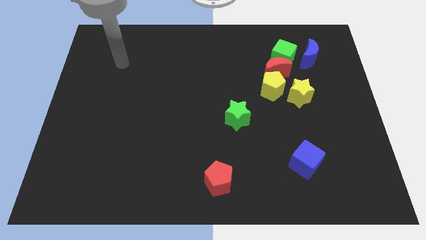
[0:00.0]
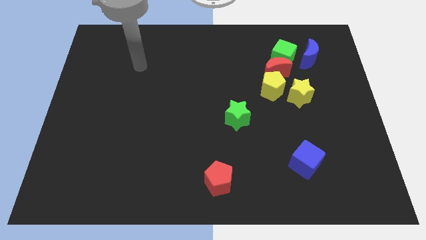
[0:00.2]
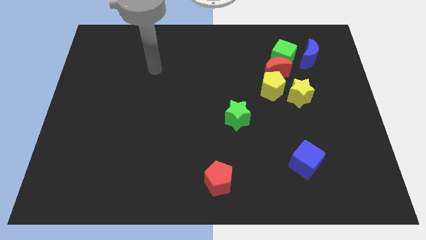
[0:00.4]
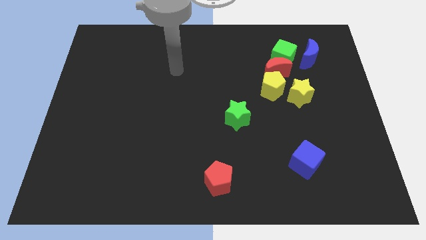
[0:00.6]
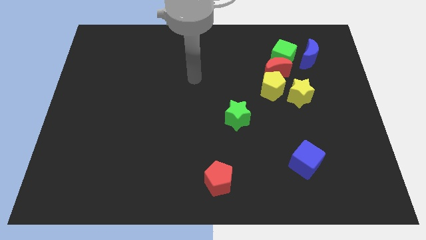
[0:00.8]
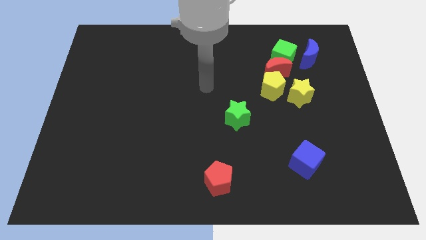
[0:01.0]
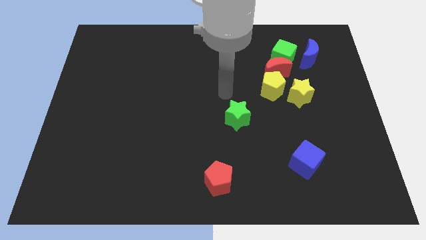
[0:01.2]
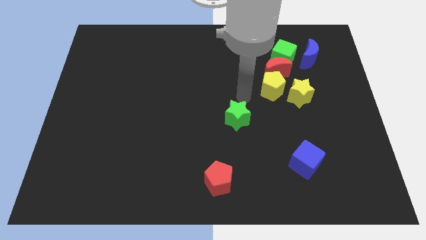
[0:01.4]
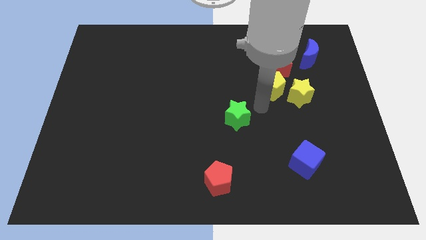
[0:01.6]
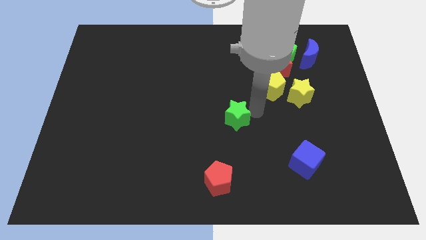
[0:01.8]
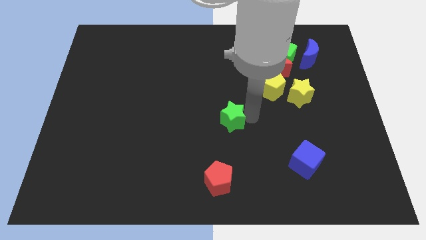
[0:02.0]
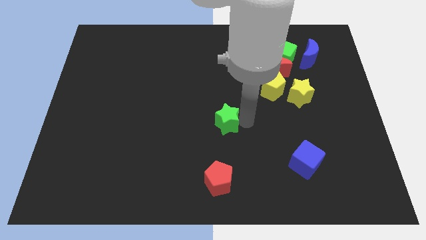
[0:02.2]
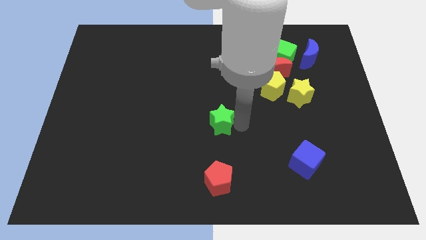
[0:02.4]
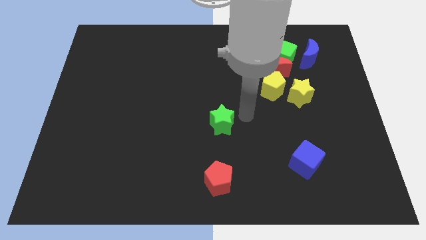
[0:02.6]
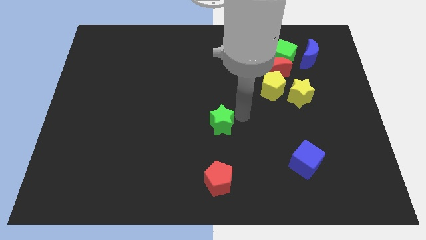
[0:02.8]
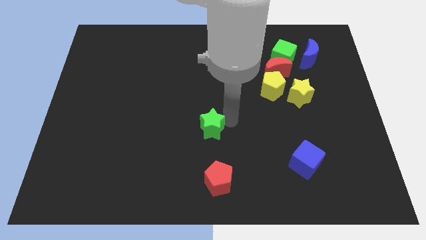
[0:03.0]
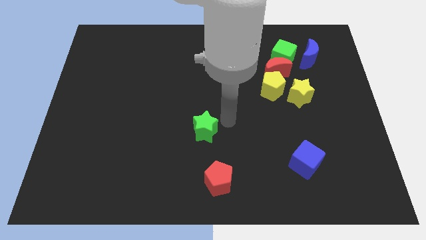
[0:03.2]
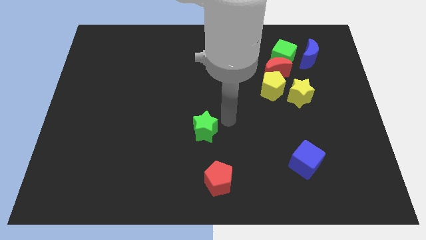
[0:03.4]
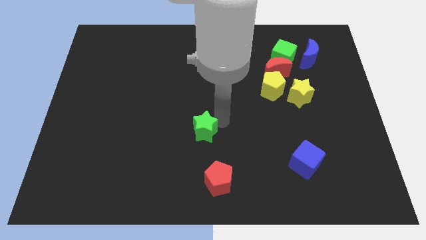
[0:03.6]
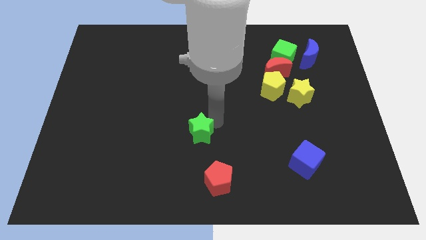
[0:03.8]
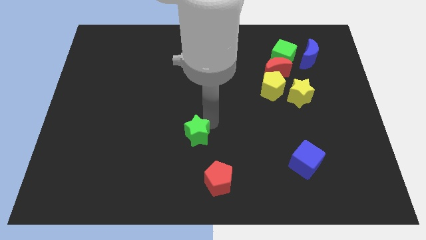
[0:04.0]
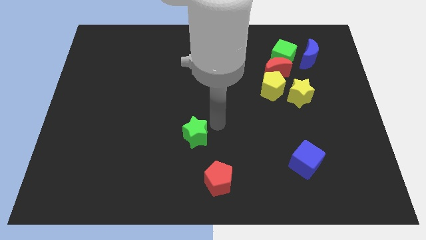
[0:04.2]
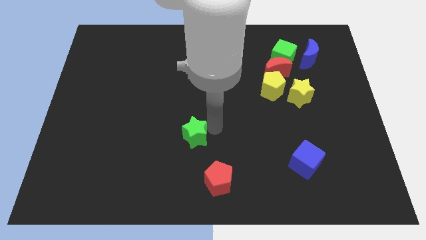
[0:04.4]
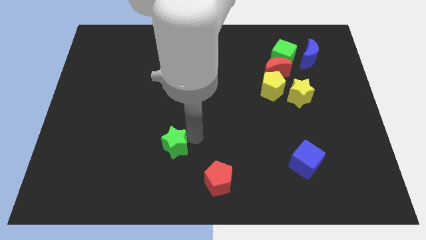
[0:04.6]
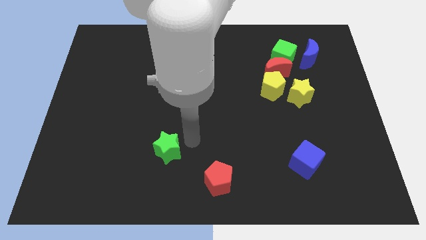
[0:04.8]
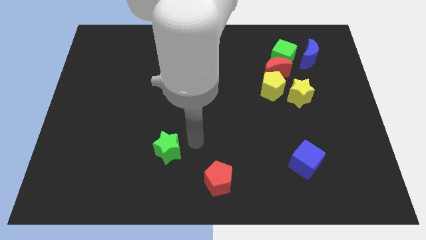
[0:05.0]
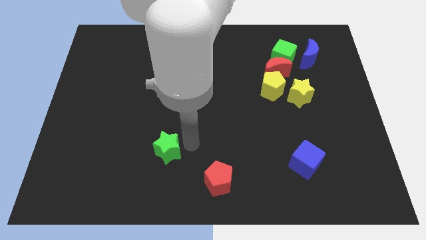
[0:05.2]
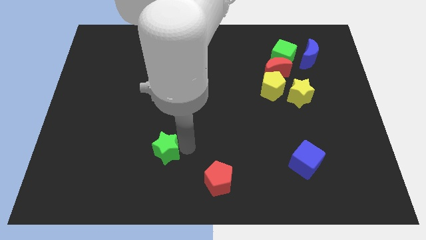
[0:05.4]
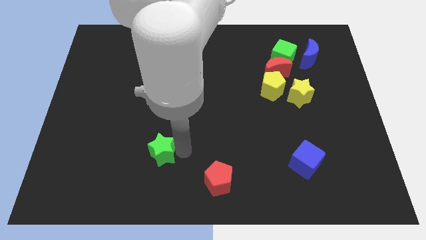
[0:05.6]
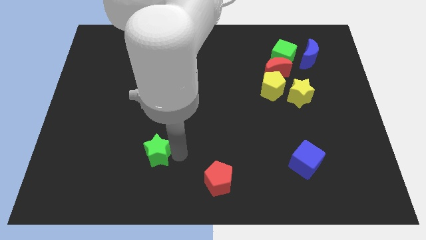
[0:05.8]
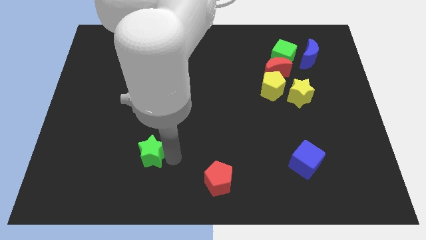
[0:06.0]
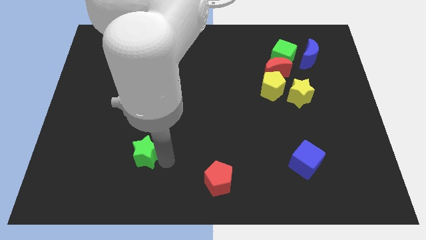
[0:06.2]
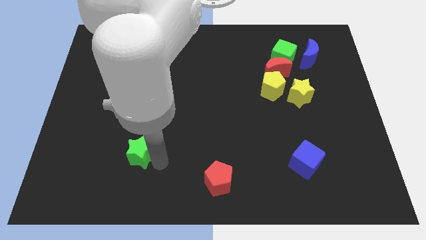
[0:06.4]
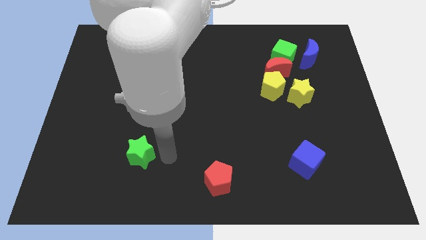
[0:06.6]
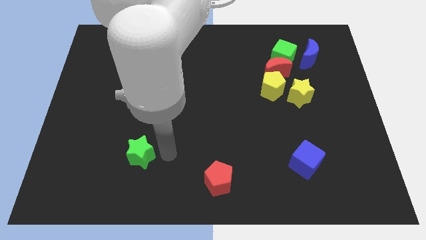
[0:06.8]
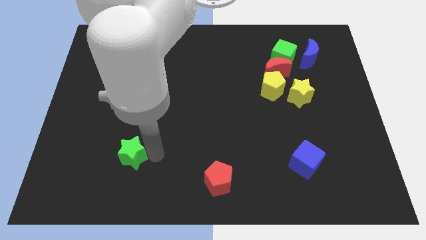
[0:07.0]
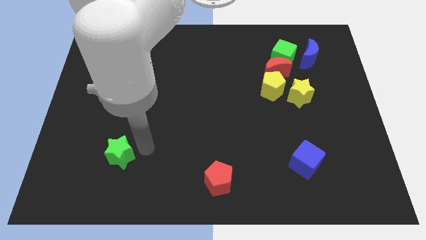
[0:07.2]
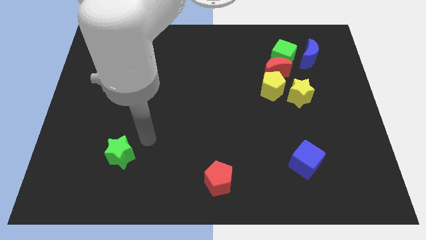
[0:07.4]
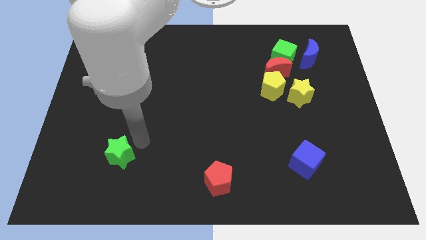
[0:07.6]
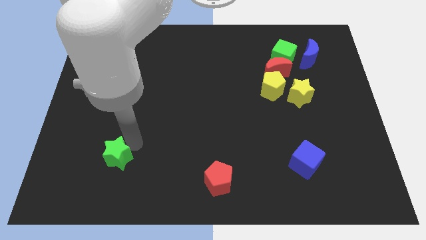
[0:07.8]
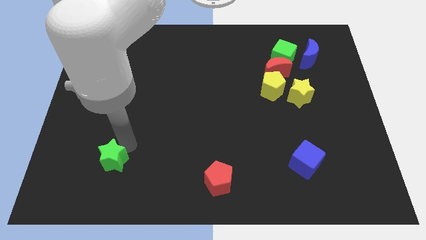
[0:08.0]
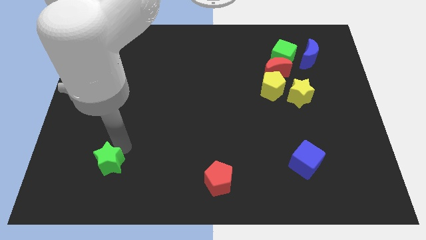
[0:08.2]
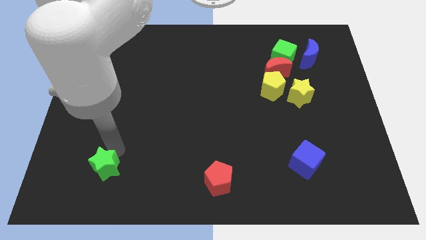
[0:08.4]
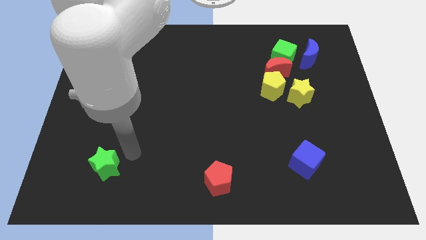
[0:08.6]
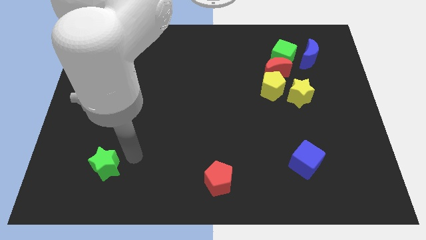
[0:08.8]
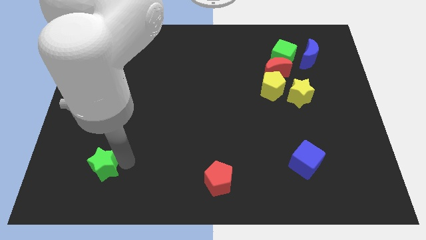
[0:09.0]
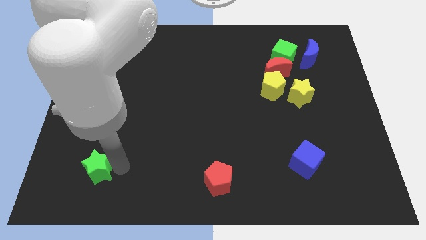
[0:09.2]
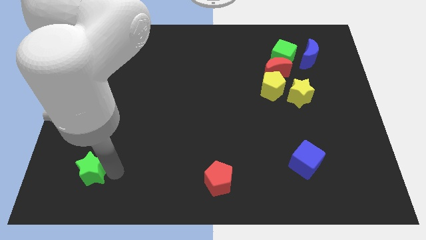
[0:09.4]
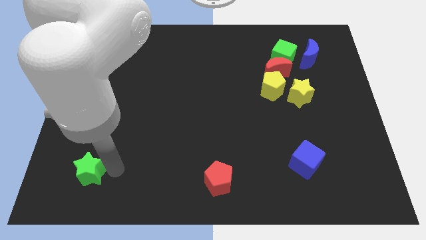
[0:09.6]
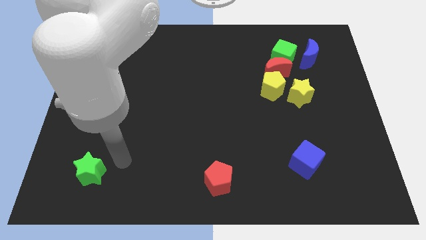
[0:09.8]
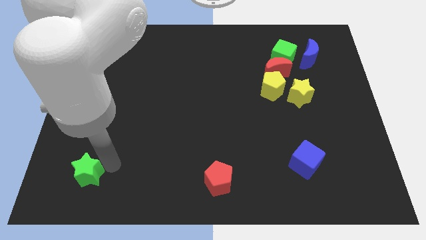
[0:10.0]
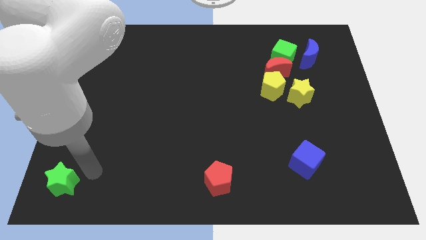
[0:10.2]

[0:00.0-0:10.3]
put the green star to the bottom left of the board

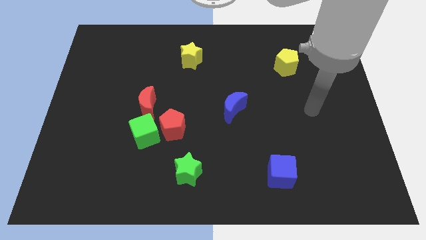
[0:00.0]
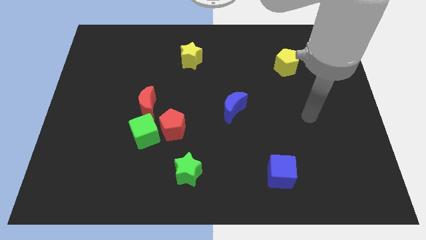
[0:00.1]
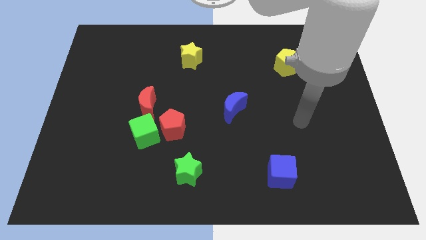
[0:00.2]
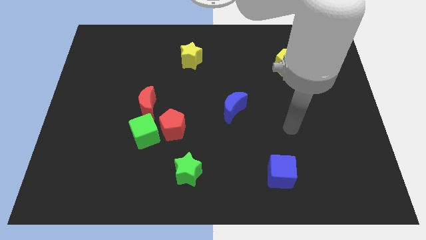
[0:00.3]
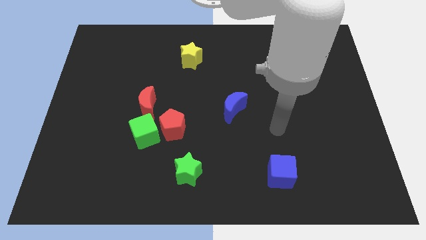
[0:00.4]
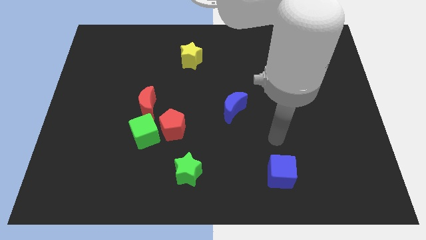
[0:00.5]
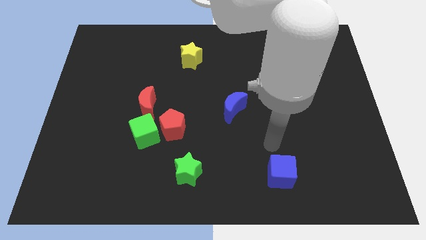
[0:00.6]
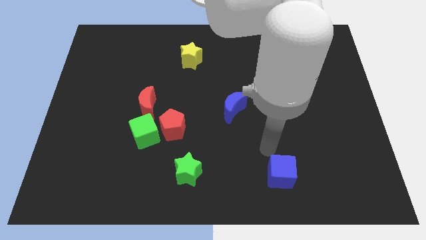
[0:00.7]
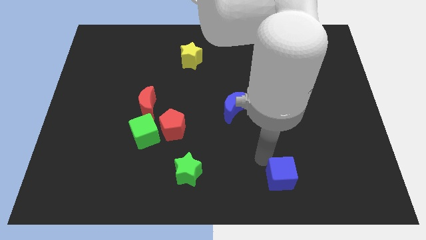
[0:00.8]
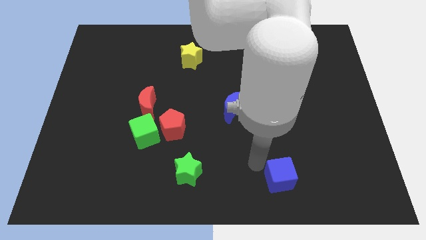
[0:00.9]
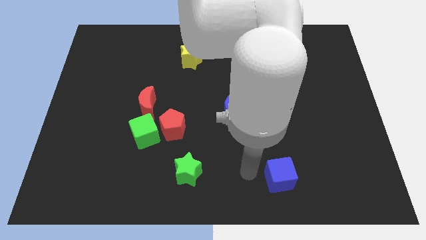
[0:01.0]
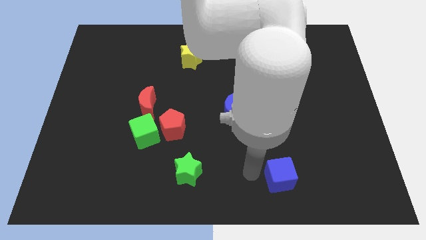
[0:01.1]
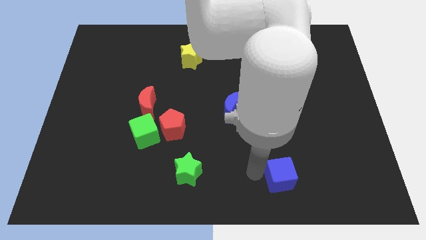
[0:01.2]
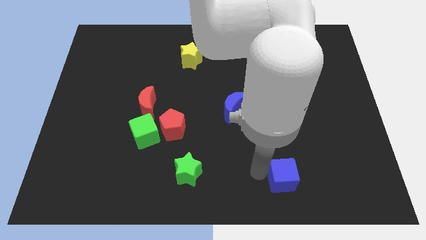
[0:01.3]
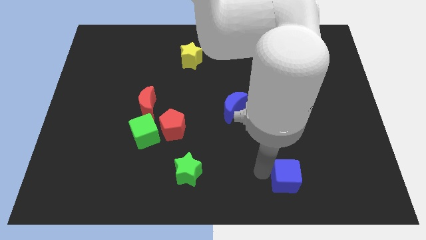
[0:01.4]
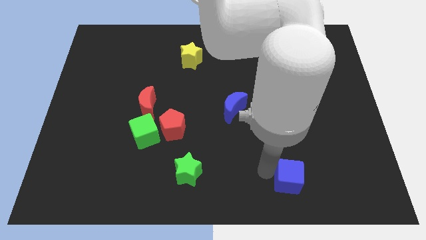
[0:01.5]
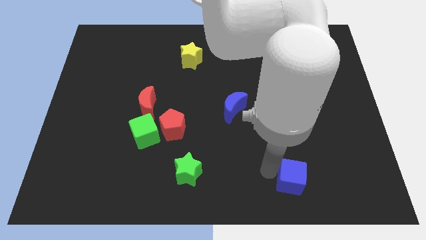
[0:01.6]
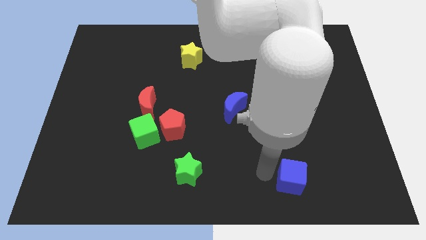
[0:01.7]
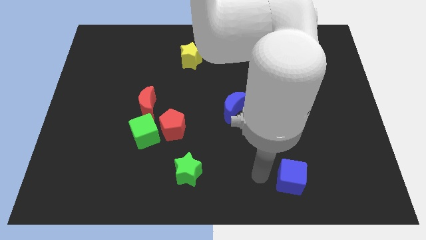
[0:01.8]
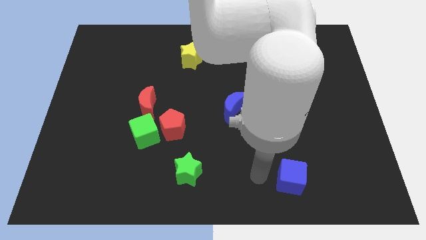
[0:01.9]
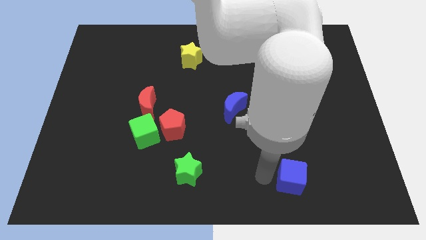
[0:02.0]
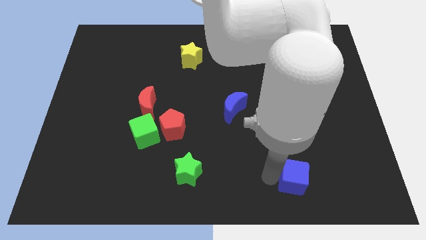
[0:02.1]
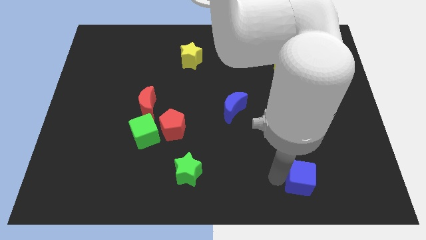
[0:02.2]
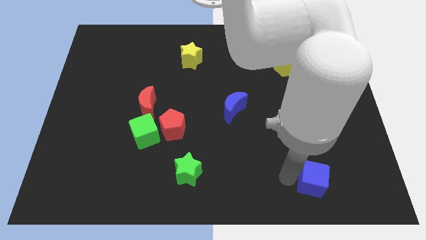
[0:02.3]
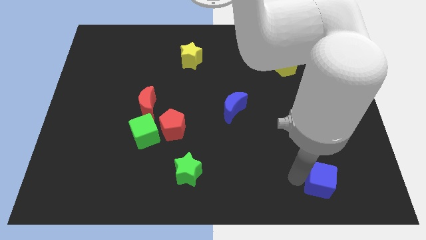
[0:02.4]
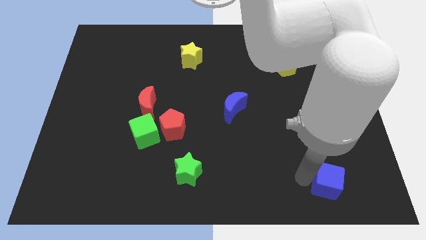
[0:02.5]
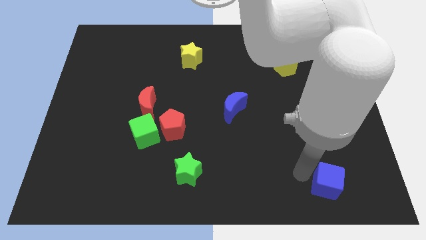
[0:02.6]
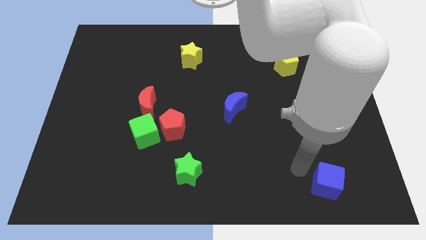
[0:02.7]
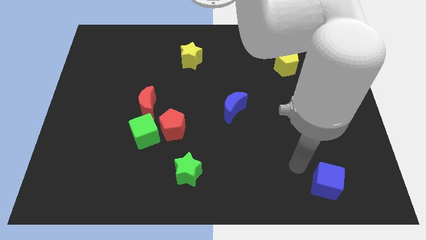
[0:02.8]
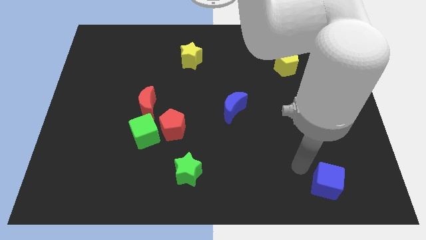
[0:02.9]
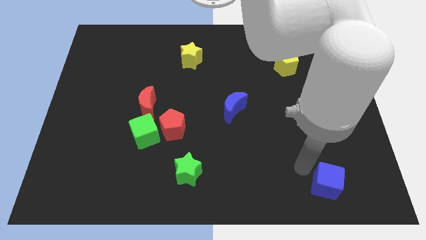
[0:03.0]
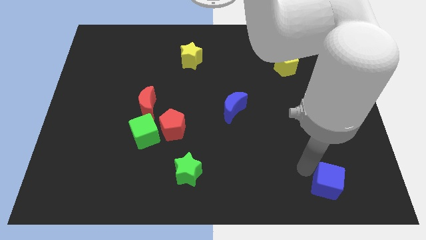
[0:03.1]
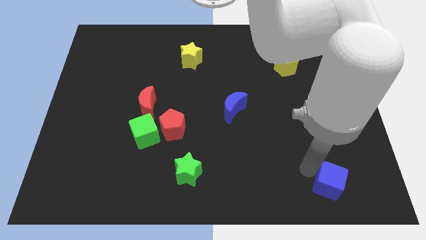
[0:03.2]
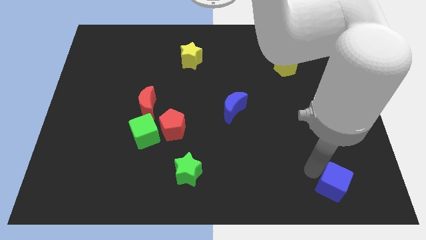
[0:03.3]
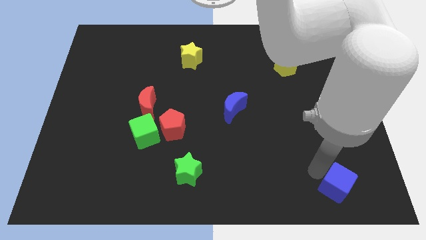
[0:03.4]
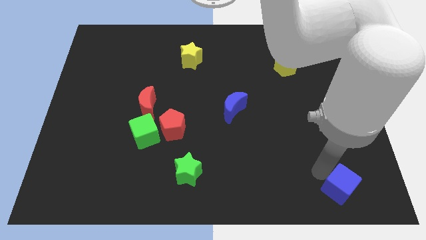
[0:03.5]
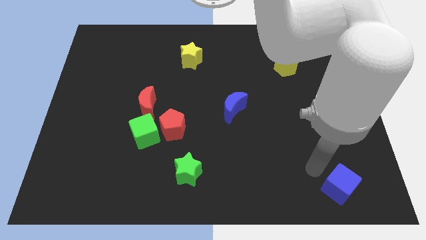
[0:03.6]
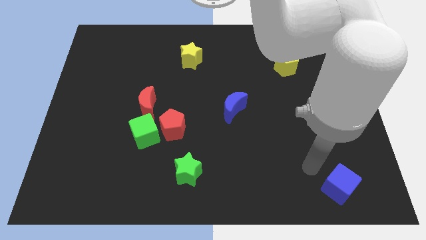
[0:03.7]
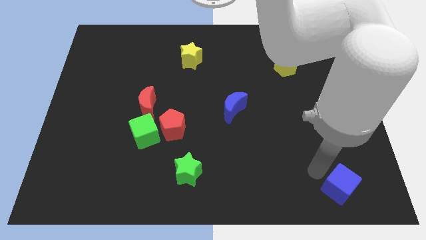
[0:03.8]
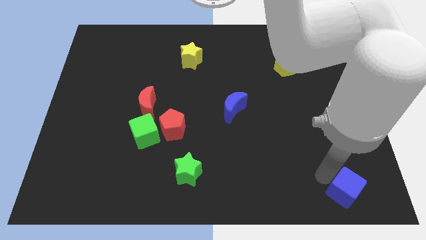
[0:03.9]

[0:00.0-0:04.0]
put the blue cube to the bottom right corner
